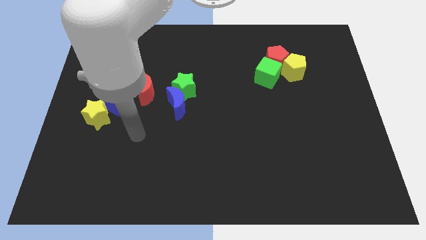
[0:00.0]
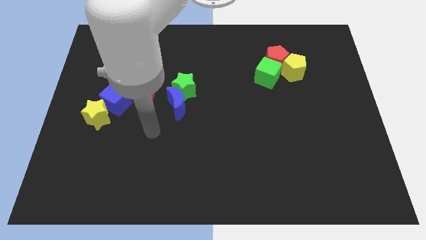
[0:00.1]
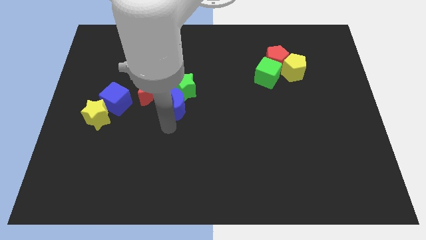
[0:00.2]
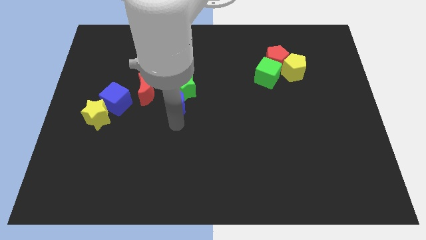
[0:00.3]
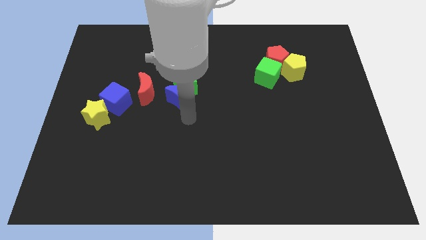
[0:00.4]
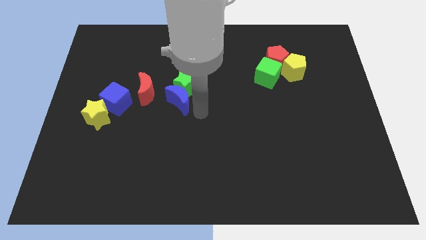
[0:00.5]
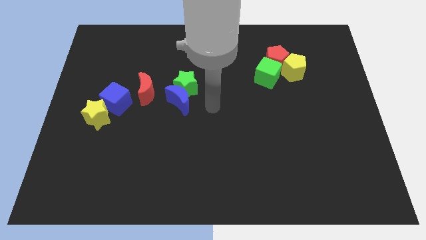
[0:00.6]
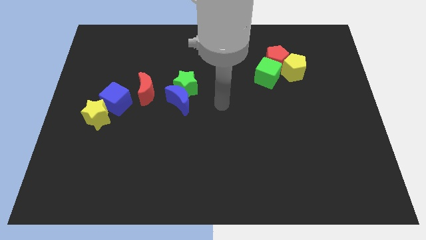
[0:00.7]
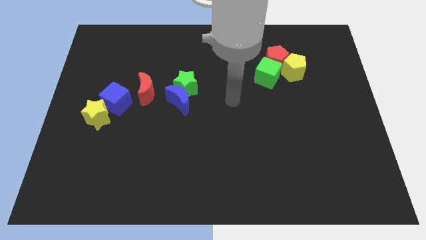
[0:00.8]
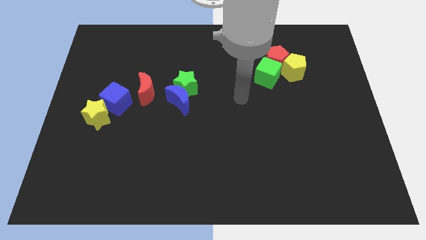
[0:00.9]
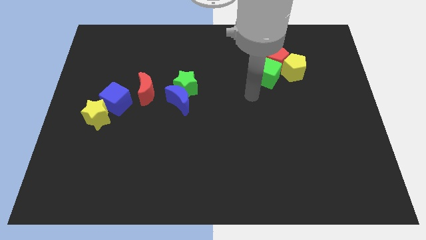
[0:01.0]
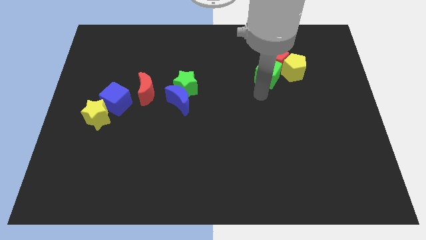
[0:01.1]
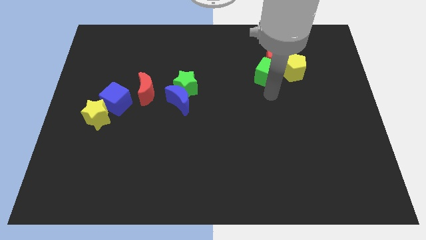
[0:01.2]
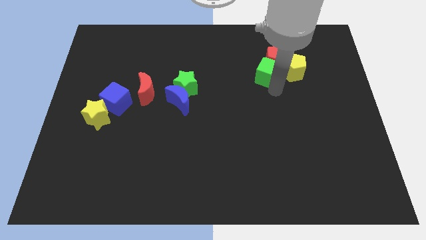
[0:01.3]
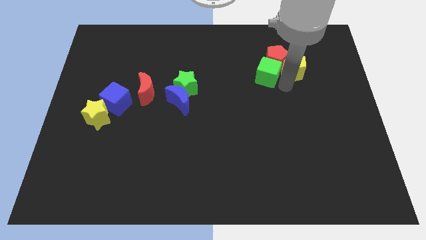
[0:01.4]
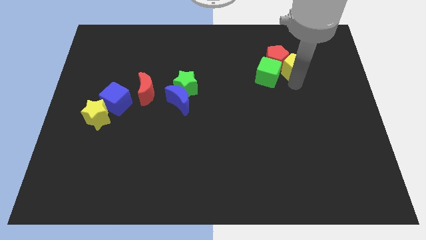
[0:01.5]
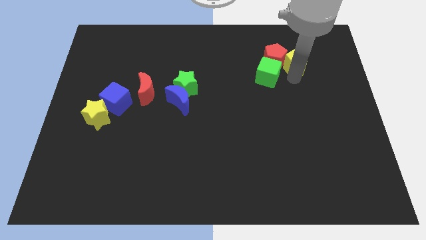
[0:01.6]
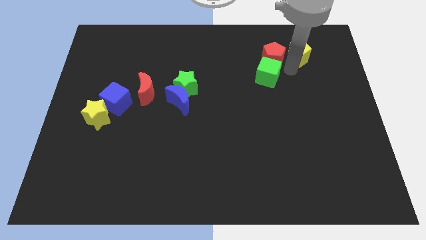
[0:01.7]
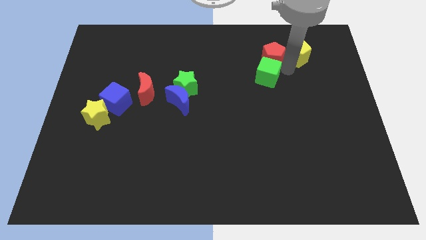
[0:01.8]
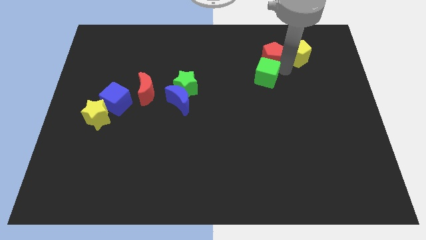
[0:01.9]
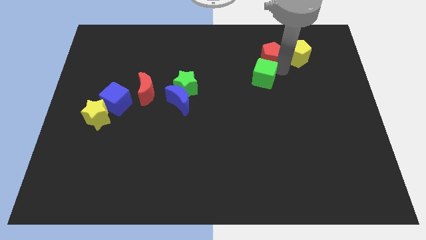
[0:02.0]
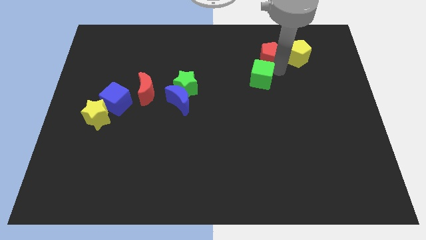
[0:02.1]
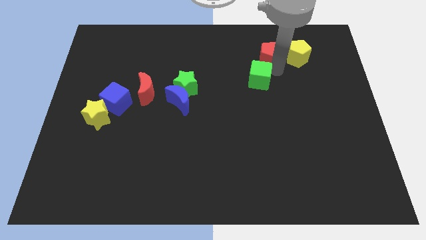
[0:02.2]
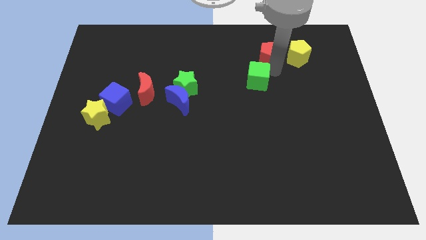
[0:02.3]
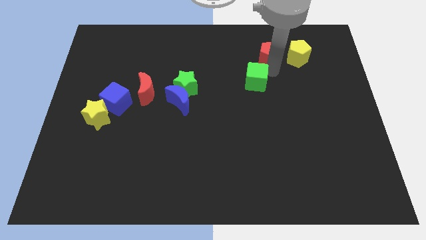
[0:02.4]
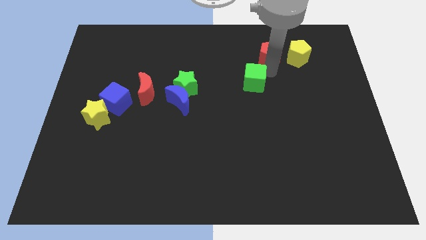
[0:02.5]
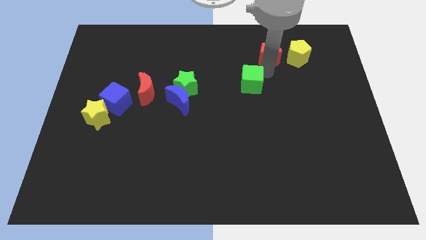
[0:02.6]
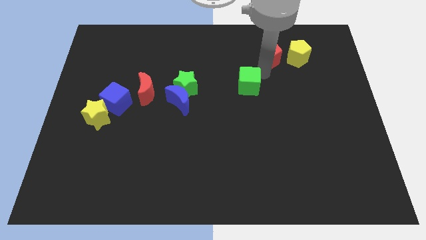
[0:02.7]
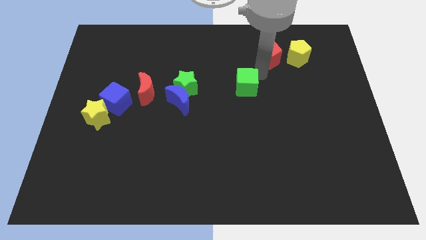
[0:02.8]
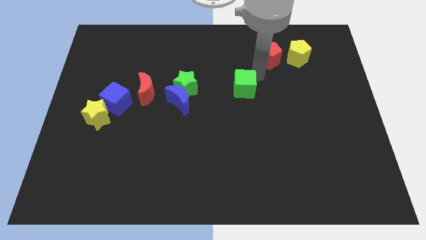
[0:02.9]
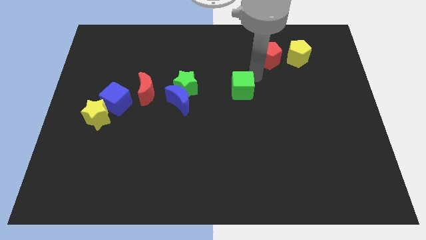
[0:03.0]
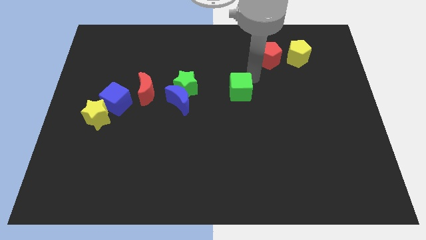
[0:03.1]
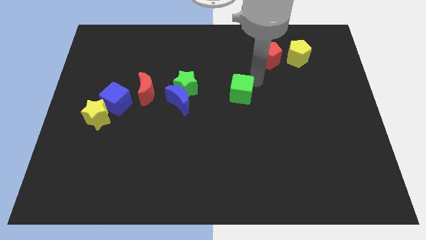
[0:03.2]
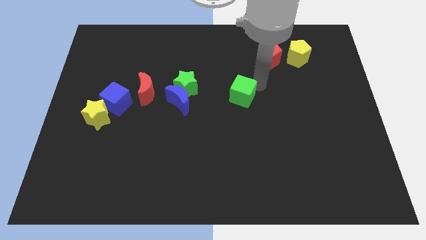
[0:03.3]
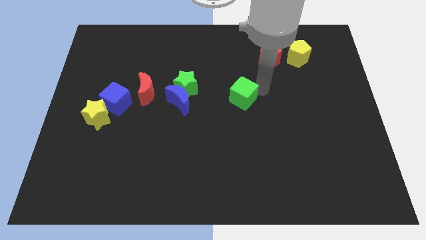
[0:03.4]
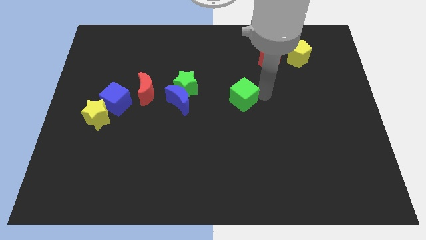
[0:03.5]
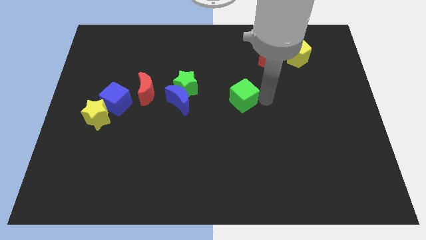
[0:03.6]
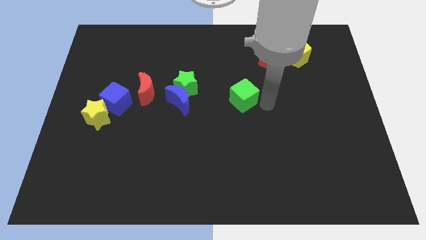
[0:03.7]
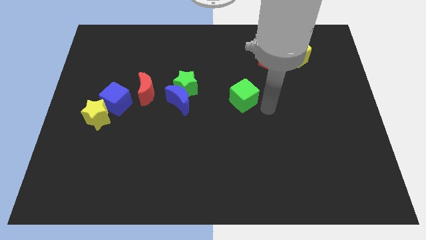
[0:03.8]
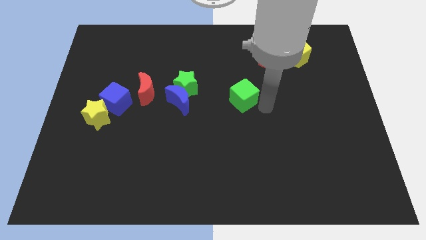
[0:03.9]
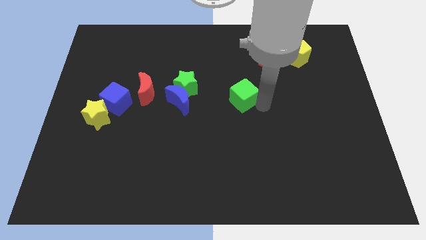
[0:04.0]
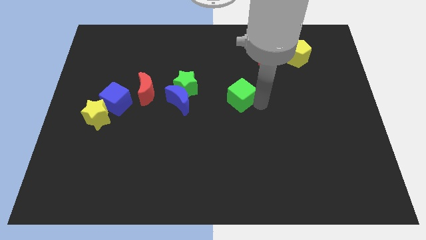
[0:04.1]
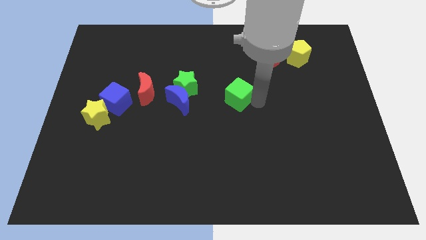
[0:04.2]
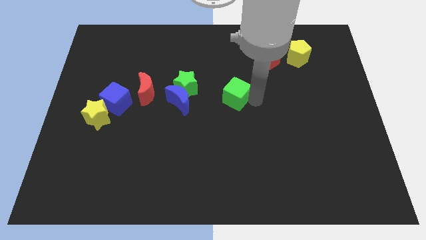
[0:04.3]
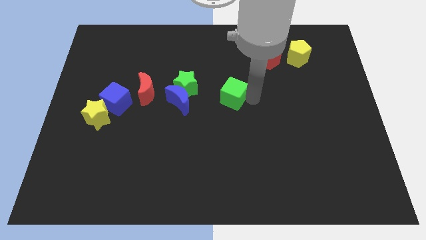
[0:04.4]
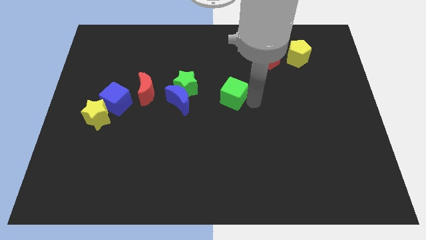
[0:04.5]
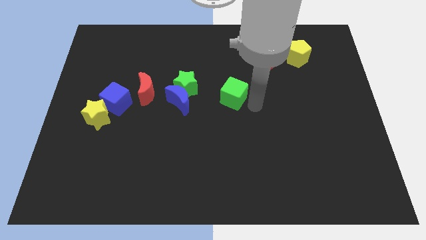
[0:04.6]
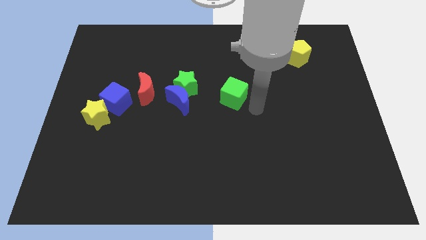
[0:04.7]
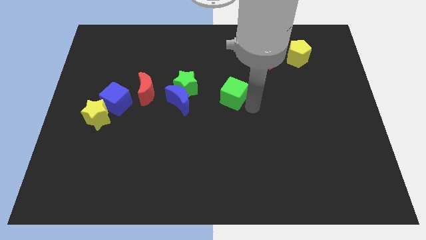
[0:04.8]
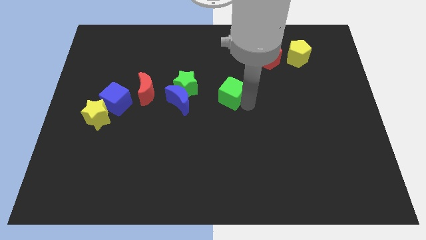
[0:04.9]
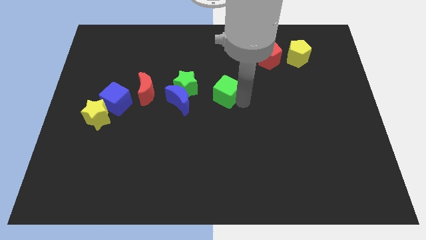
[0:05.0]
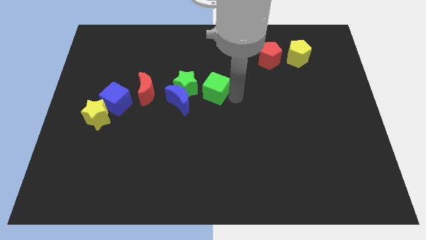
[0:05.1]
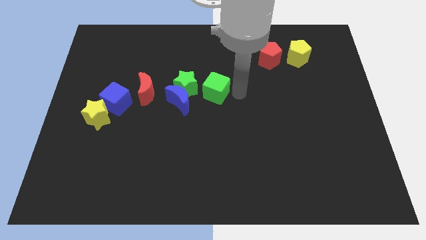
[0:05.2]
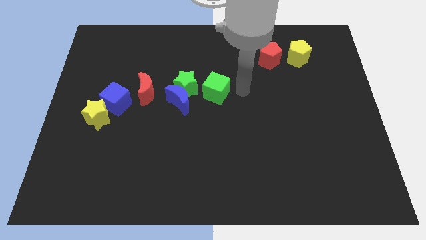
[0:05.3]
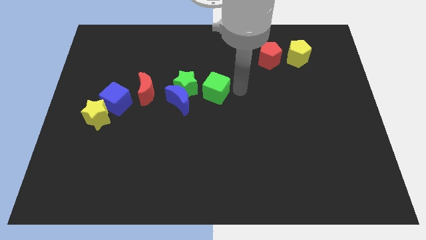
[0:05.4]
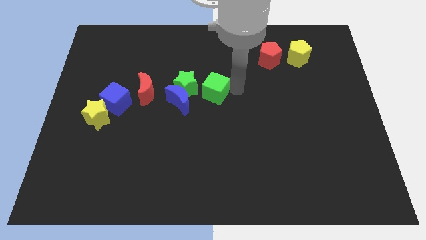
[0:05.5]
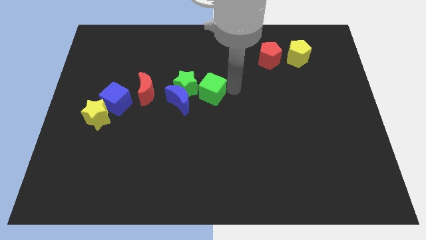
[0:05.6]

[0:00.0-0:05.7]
slide the green cube to the right side of the red moon

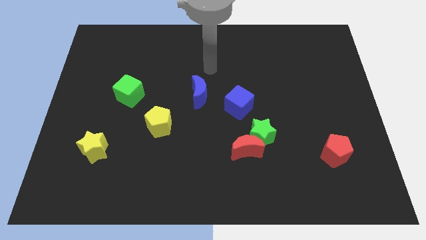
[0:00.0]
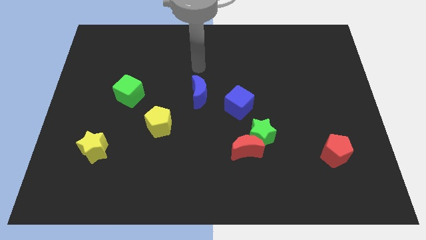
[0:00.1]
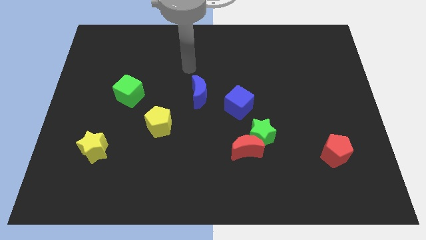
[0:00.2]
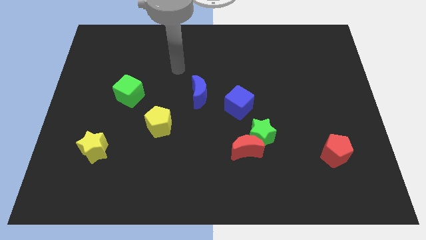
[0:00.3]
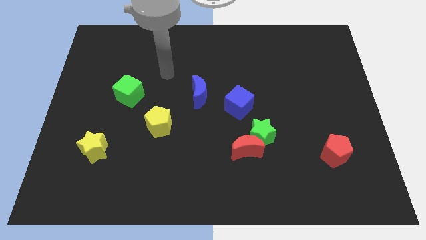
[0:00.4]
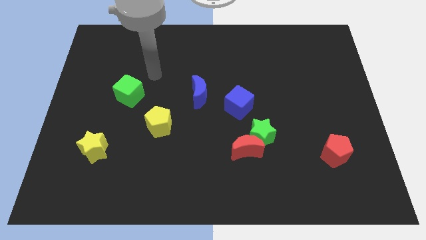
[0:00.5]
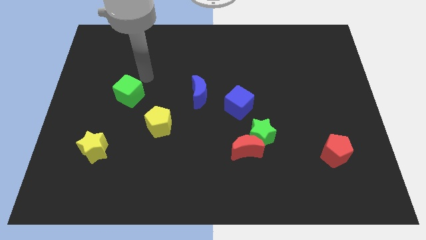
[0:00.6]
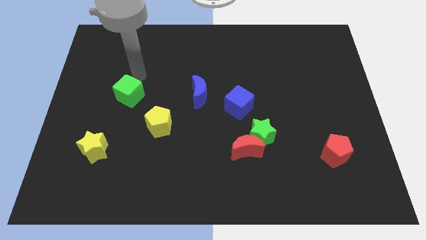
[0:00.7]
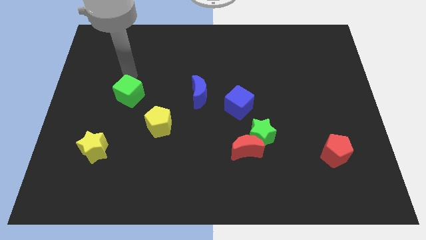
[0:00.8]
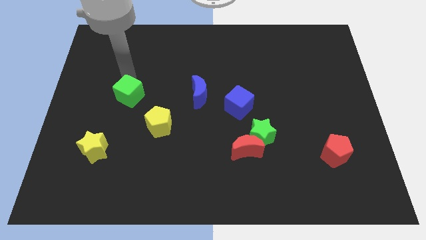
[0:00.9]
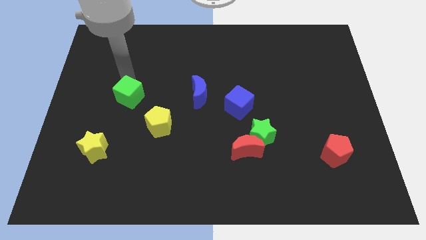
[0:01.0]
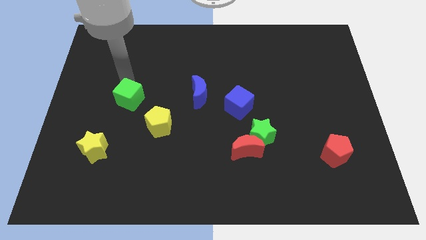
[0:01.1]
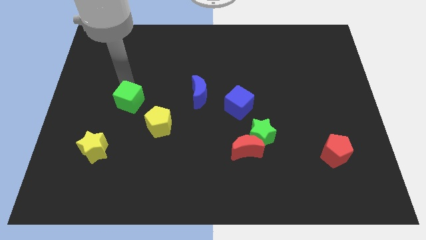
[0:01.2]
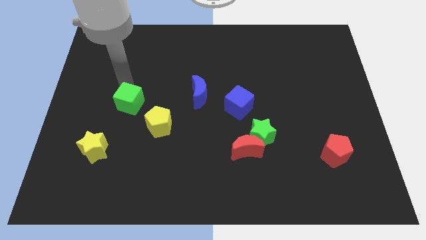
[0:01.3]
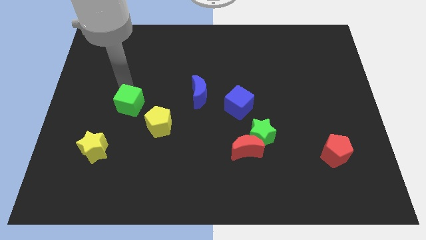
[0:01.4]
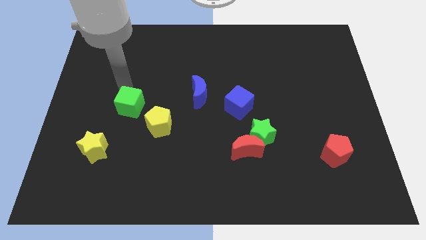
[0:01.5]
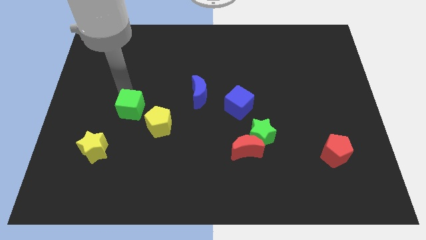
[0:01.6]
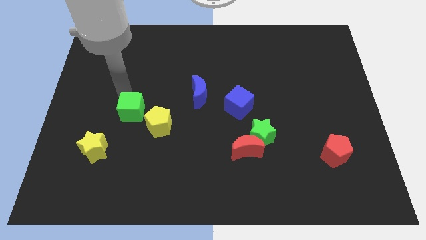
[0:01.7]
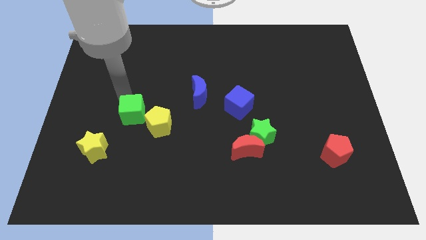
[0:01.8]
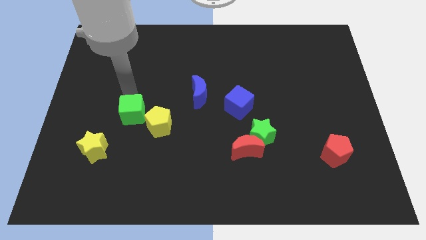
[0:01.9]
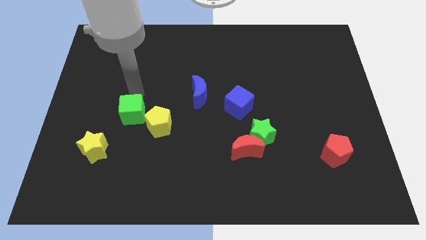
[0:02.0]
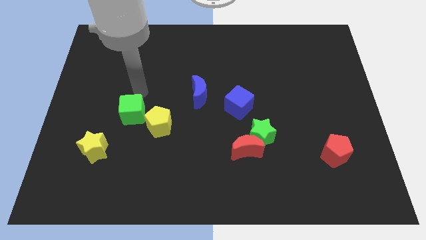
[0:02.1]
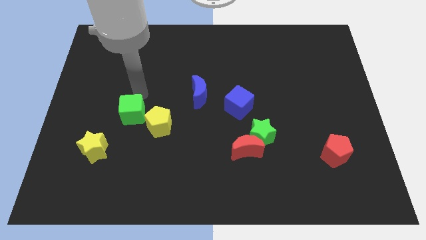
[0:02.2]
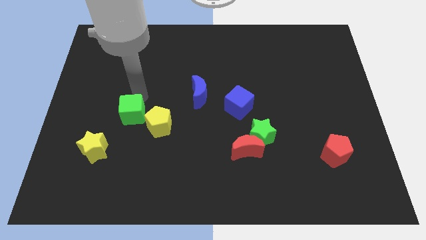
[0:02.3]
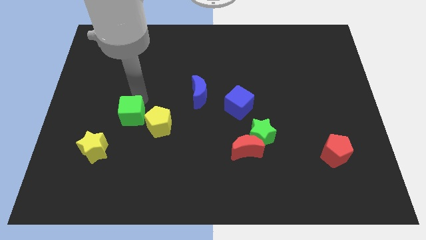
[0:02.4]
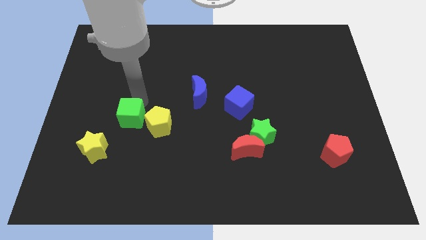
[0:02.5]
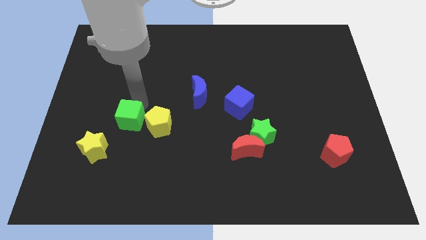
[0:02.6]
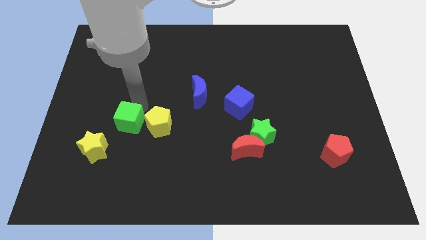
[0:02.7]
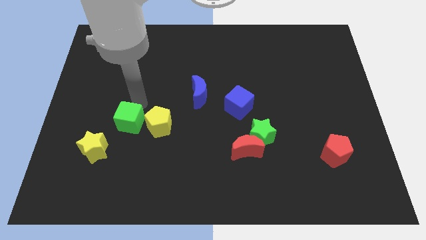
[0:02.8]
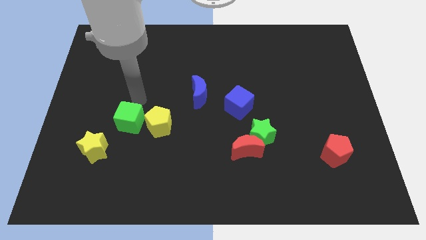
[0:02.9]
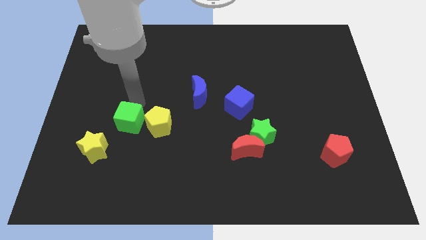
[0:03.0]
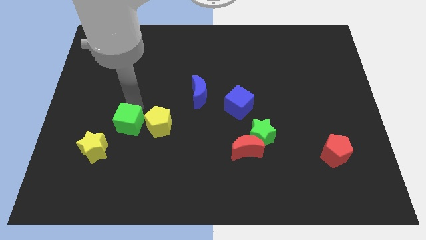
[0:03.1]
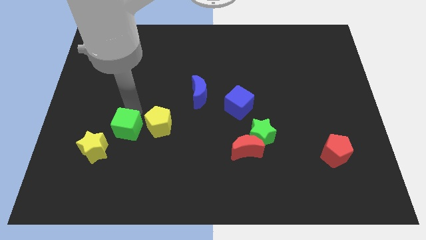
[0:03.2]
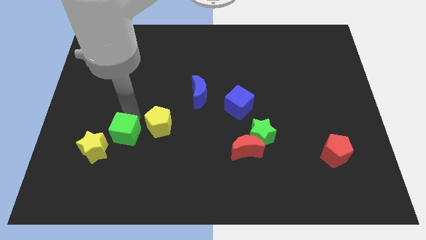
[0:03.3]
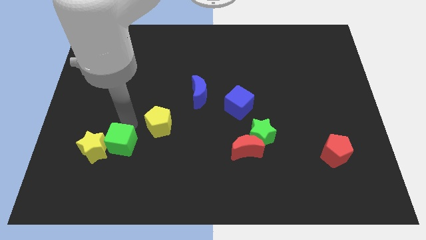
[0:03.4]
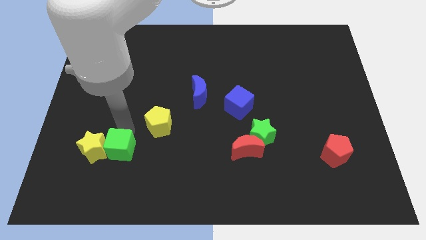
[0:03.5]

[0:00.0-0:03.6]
push the green cube to the bottom right side of the yellow star
